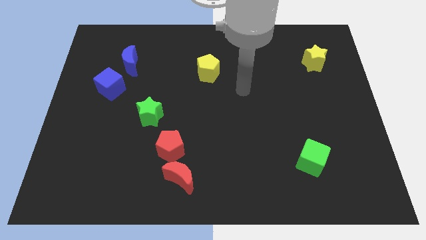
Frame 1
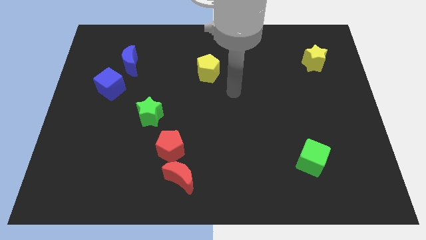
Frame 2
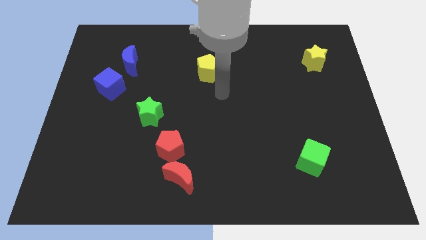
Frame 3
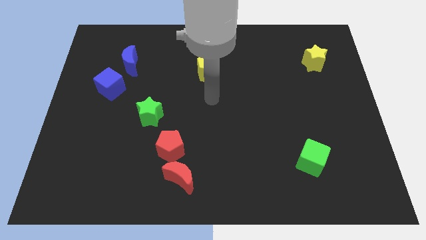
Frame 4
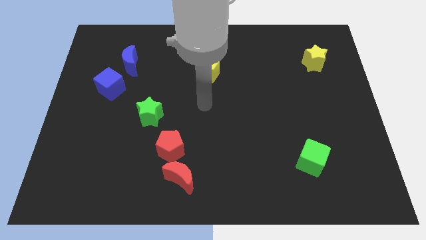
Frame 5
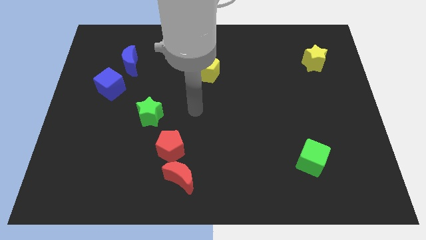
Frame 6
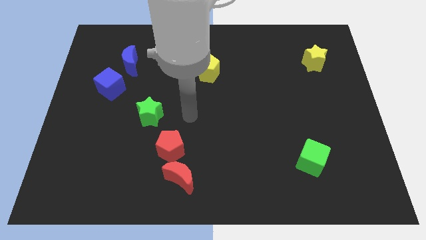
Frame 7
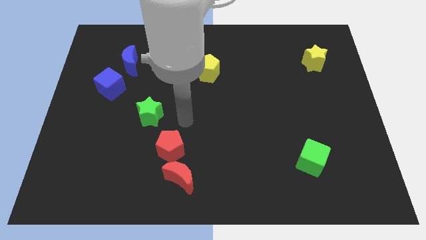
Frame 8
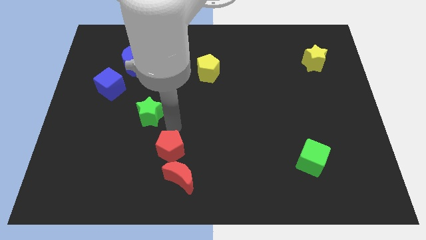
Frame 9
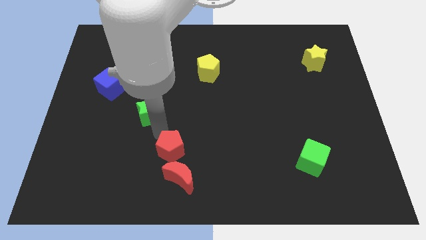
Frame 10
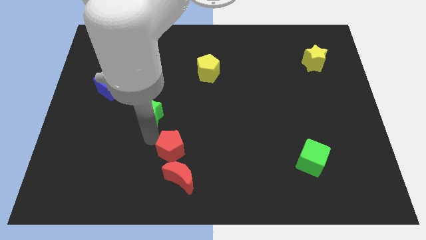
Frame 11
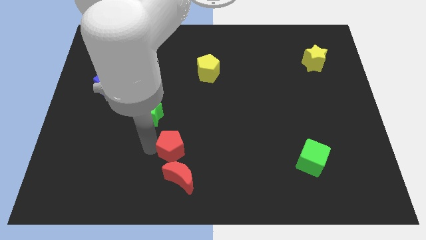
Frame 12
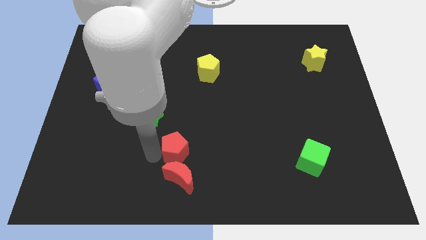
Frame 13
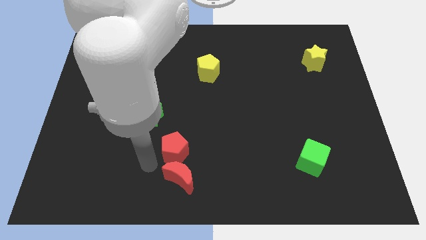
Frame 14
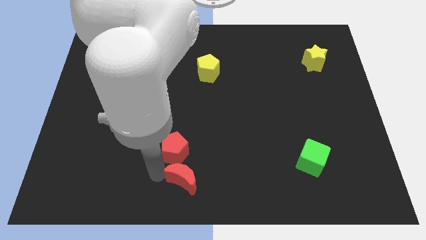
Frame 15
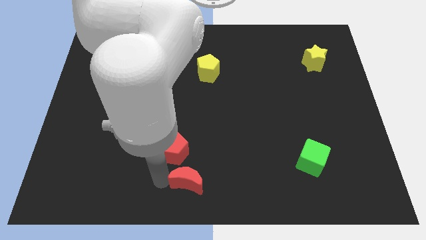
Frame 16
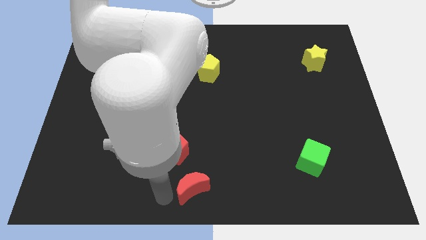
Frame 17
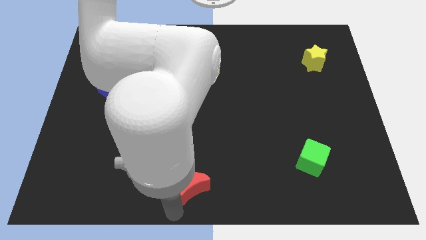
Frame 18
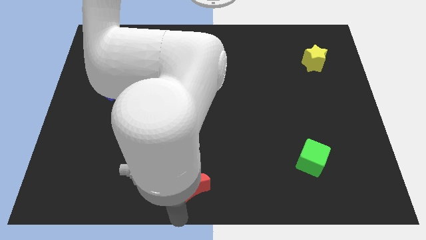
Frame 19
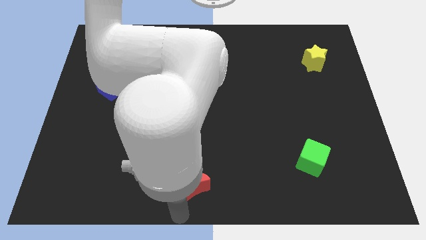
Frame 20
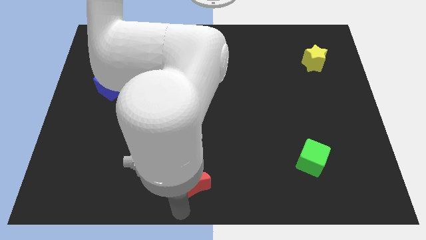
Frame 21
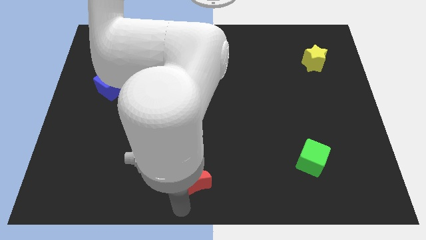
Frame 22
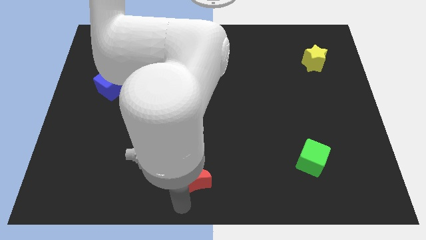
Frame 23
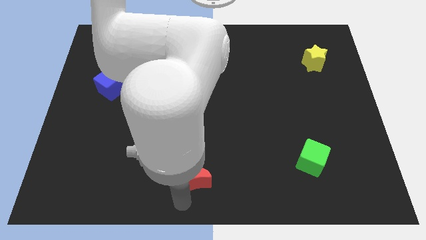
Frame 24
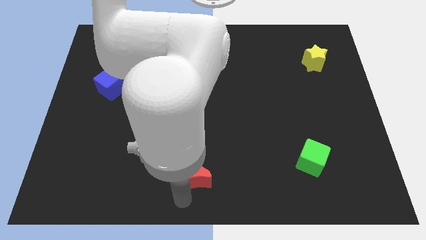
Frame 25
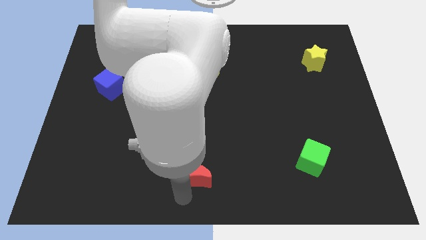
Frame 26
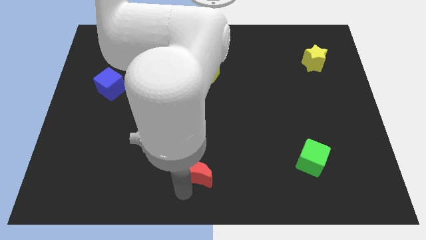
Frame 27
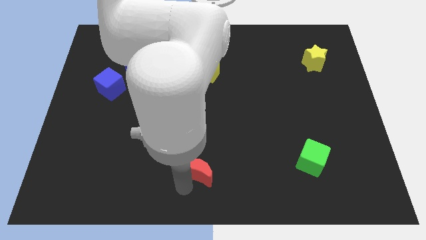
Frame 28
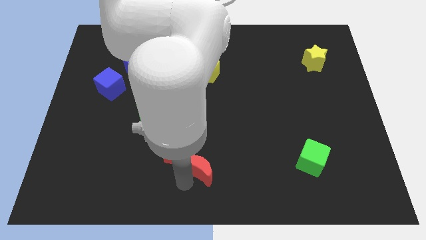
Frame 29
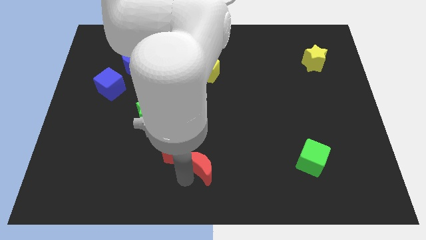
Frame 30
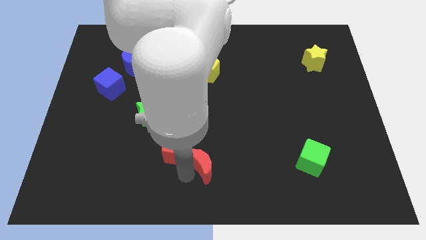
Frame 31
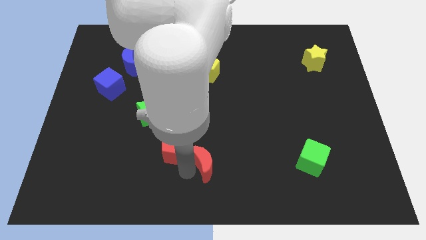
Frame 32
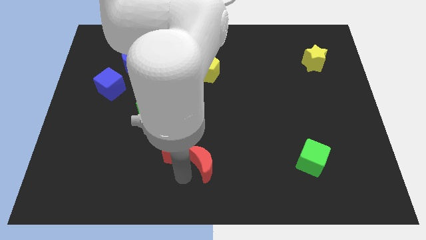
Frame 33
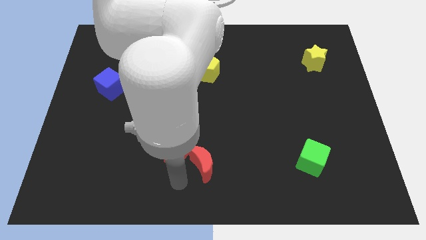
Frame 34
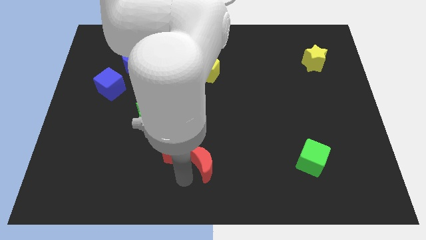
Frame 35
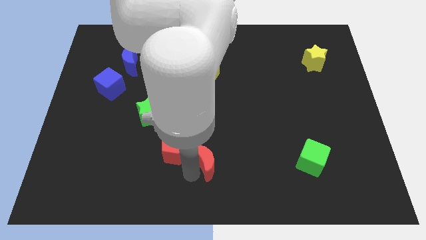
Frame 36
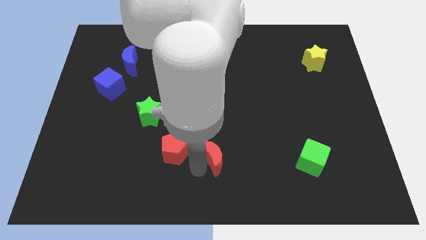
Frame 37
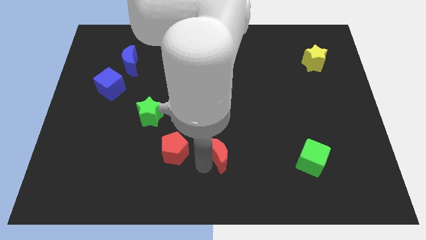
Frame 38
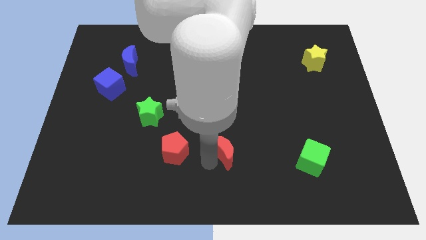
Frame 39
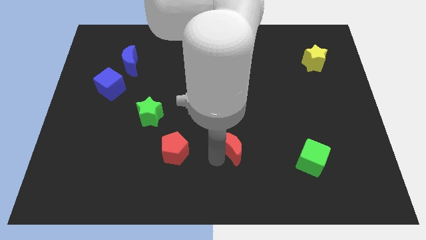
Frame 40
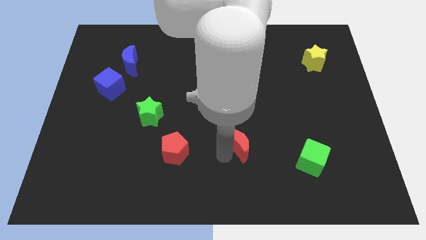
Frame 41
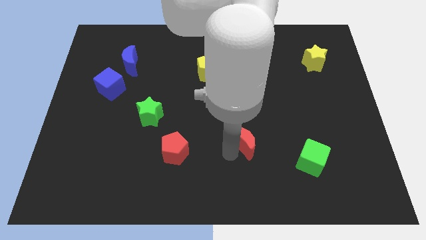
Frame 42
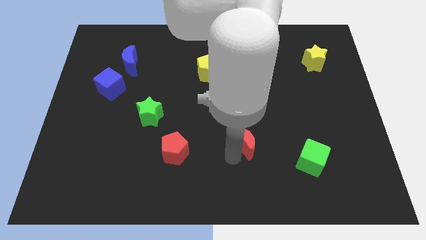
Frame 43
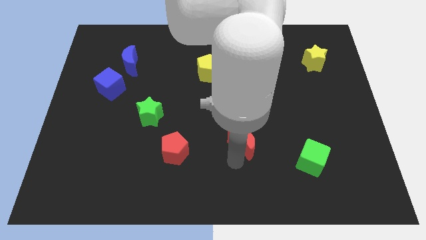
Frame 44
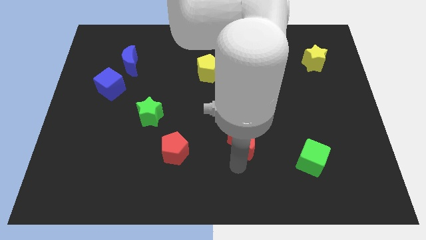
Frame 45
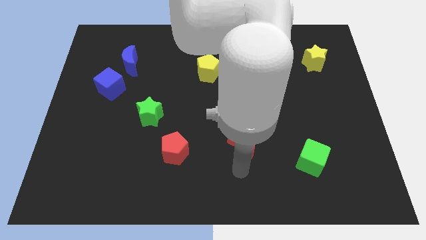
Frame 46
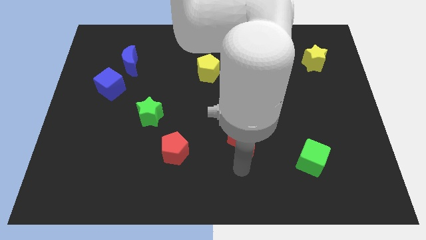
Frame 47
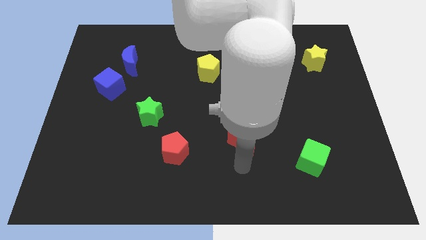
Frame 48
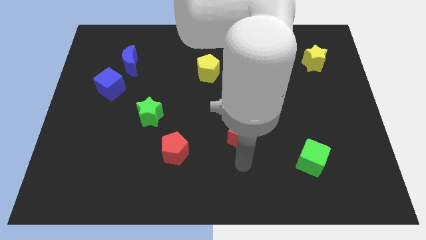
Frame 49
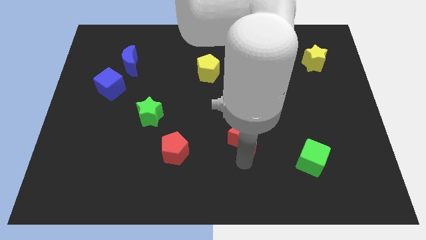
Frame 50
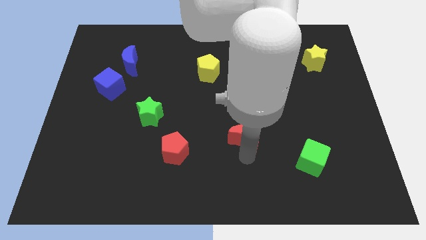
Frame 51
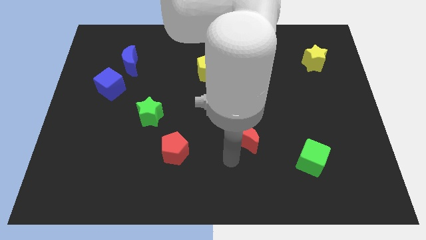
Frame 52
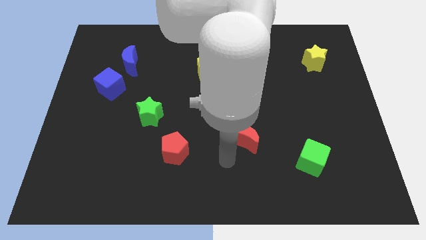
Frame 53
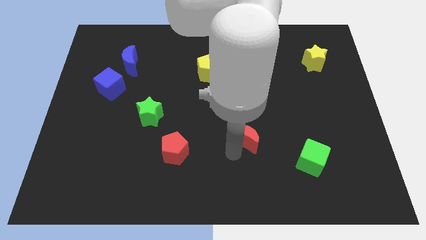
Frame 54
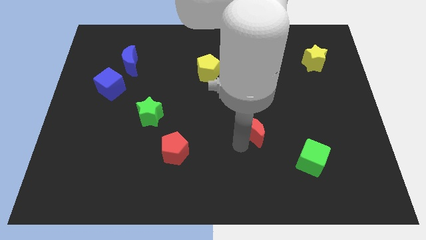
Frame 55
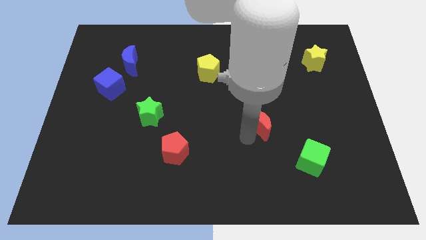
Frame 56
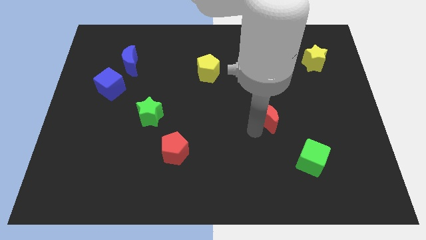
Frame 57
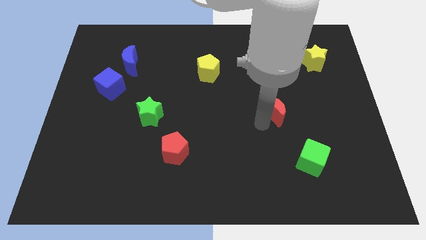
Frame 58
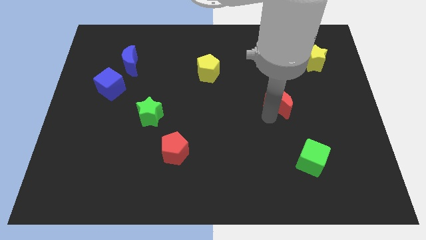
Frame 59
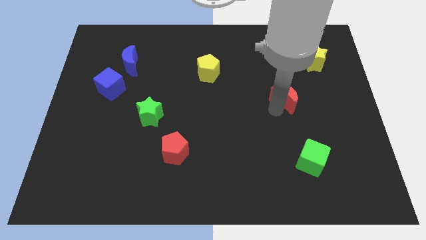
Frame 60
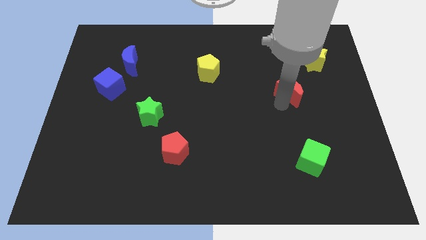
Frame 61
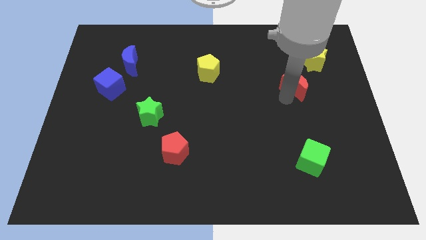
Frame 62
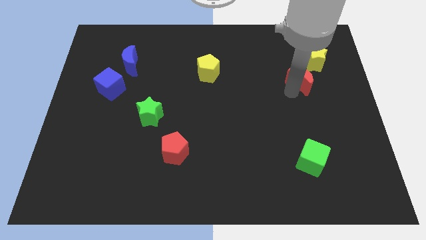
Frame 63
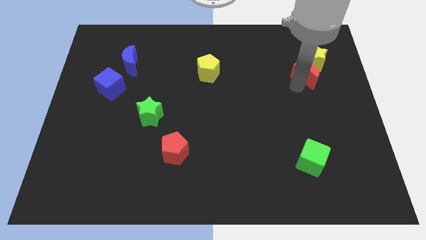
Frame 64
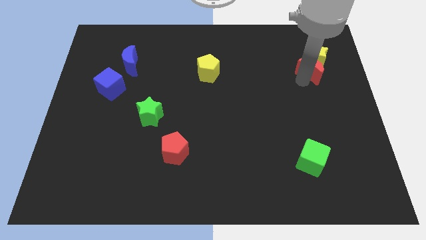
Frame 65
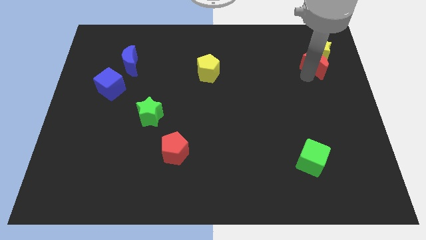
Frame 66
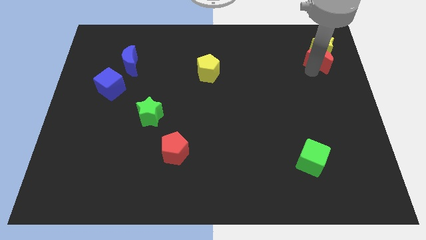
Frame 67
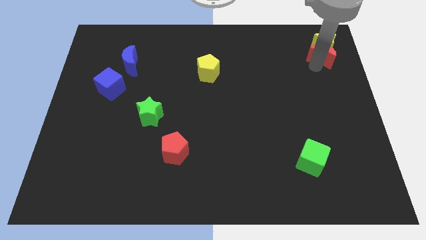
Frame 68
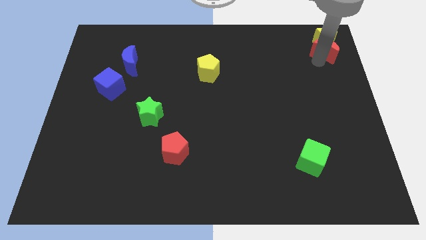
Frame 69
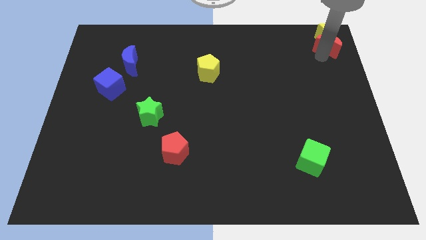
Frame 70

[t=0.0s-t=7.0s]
push the red moon to the top right

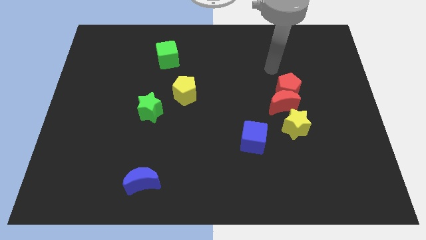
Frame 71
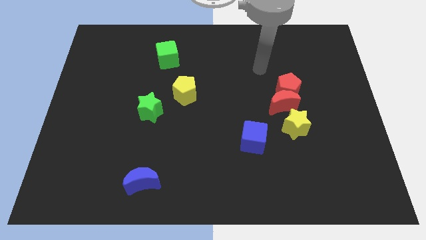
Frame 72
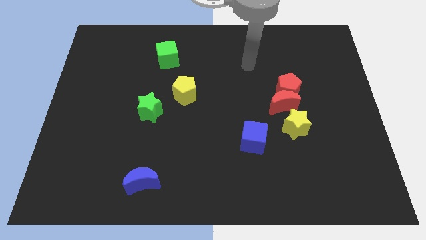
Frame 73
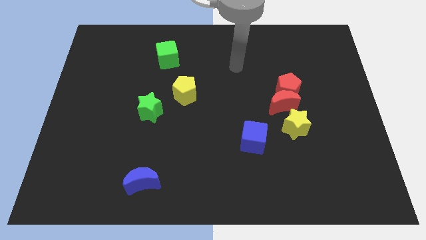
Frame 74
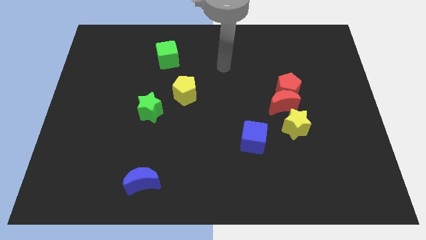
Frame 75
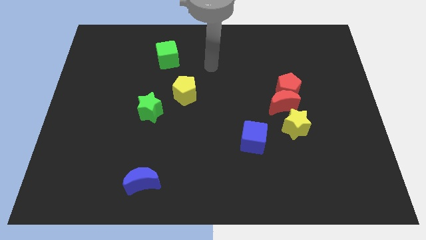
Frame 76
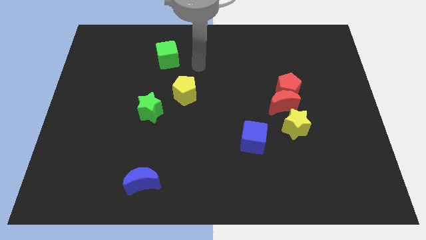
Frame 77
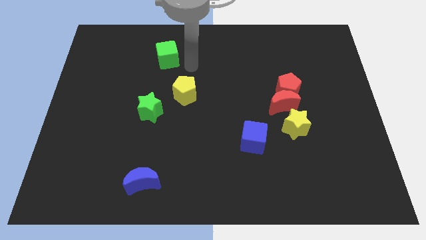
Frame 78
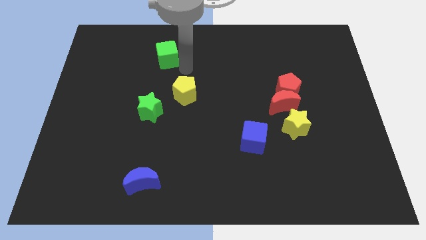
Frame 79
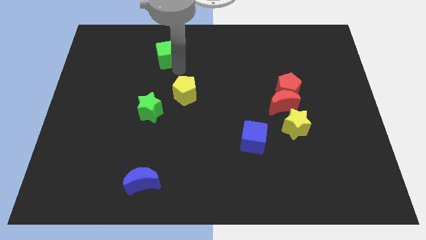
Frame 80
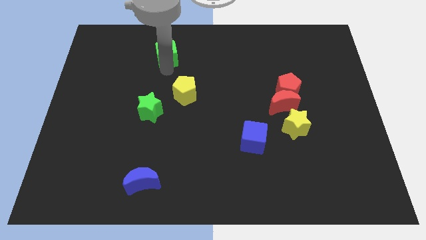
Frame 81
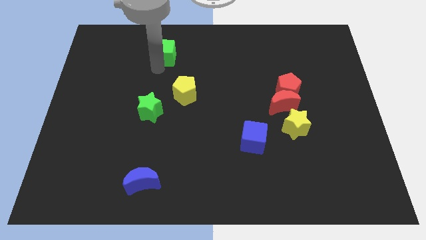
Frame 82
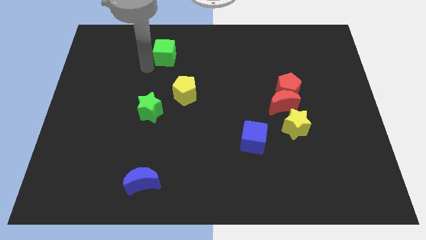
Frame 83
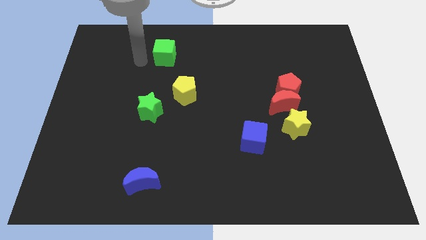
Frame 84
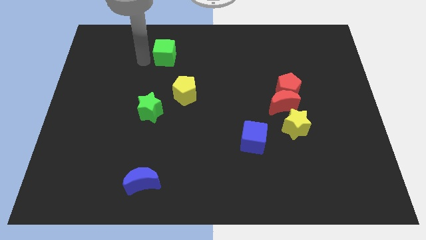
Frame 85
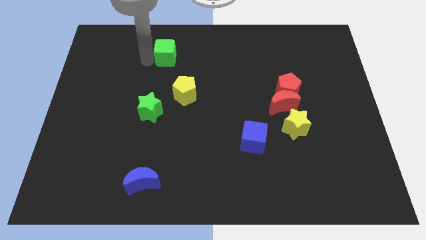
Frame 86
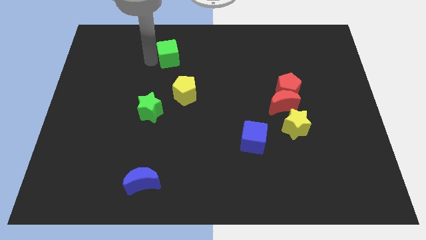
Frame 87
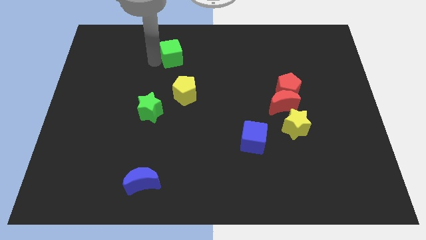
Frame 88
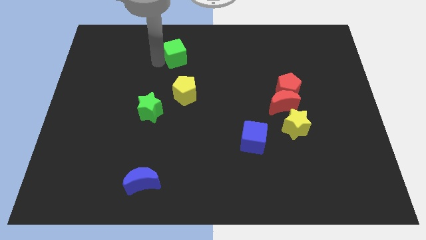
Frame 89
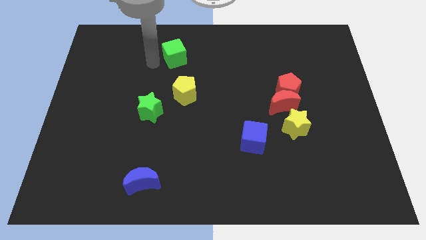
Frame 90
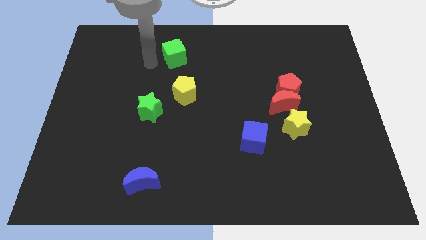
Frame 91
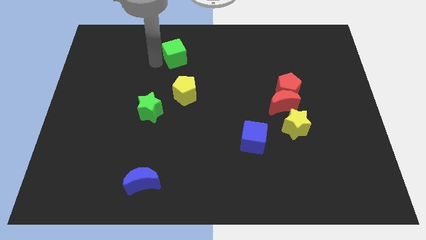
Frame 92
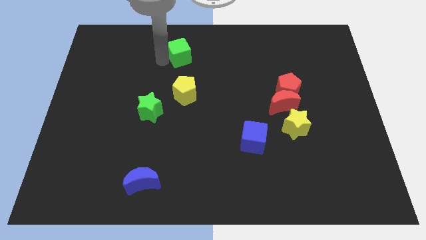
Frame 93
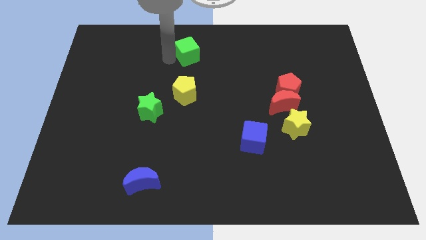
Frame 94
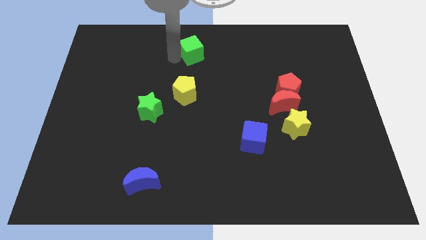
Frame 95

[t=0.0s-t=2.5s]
slide the green cube to the towards your base
